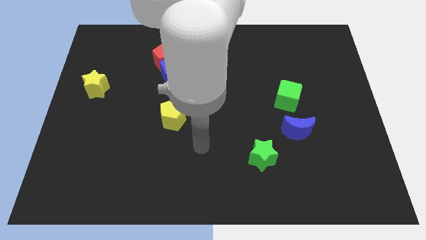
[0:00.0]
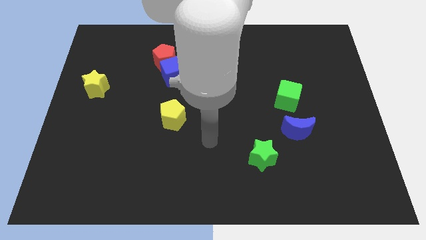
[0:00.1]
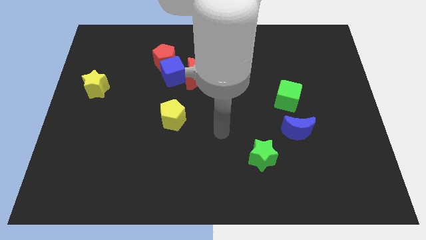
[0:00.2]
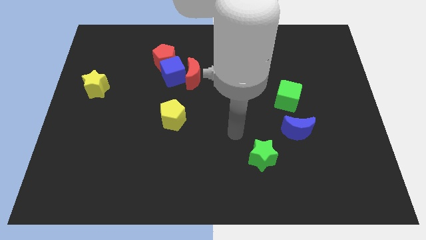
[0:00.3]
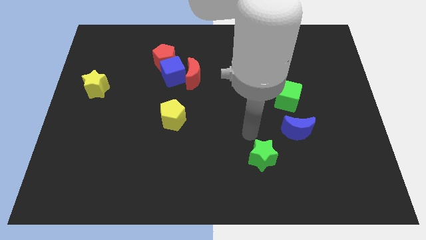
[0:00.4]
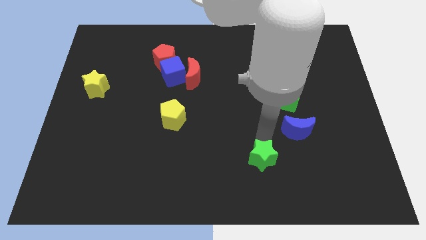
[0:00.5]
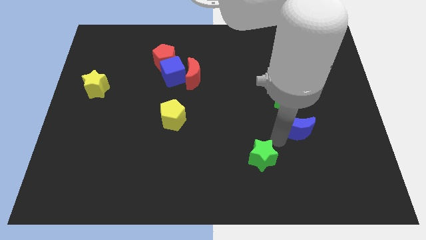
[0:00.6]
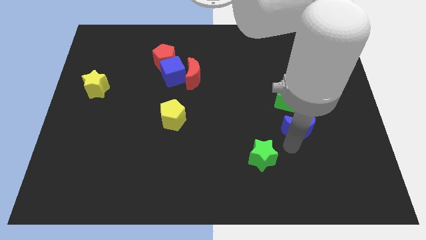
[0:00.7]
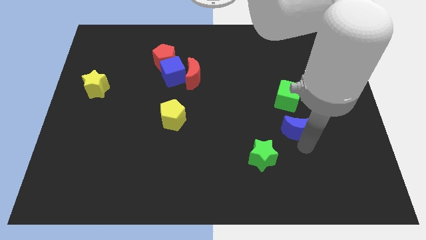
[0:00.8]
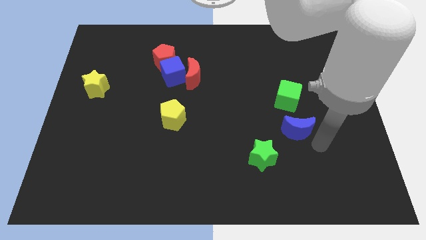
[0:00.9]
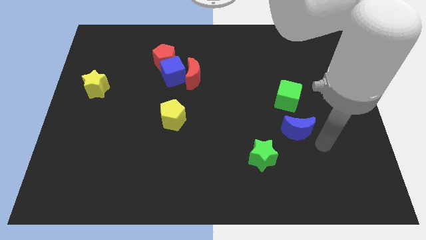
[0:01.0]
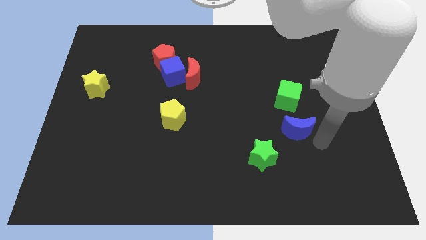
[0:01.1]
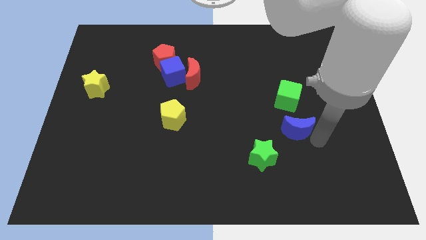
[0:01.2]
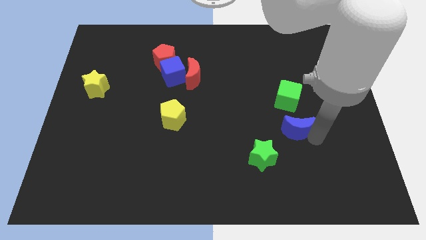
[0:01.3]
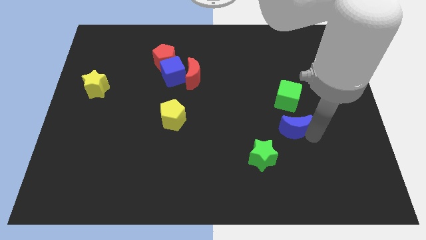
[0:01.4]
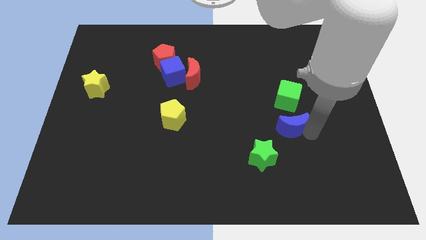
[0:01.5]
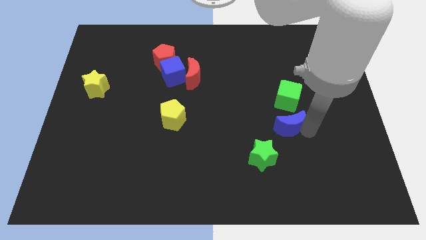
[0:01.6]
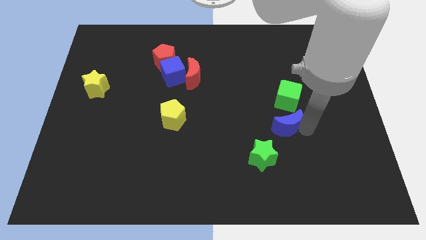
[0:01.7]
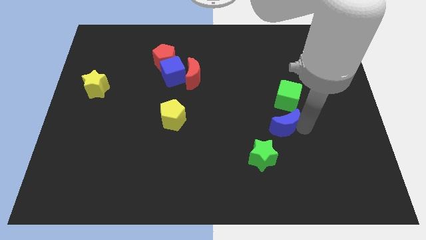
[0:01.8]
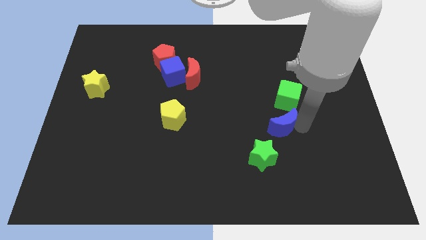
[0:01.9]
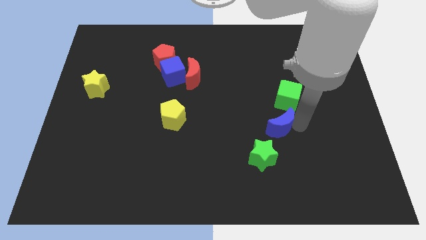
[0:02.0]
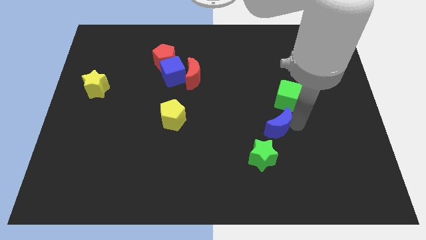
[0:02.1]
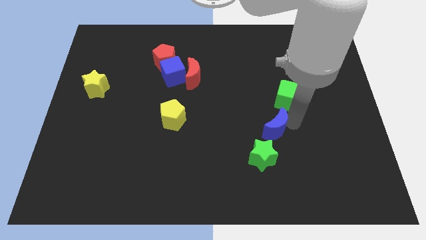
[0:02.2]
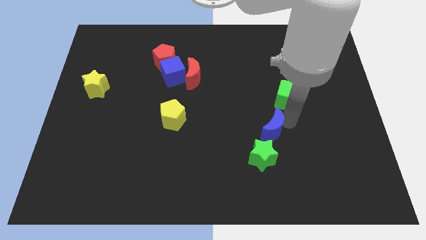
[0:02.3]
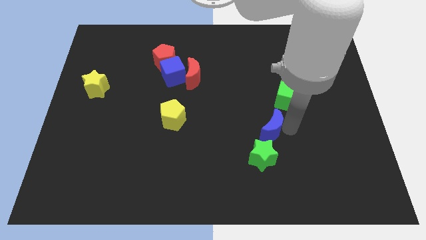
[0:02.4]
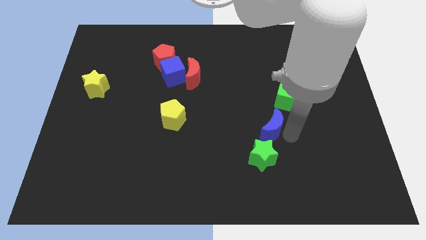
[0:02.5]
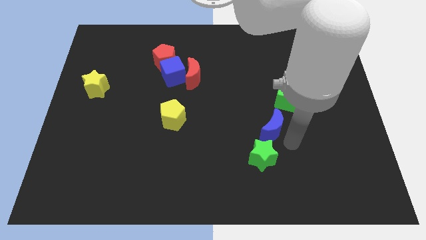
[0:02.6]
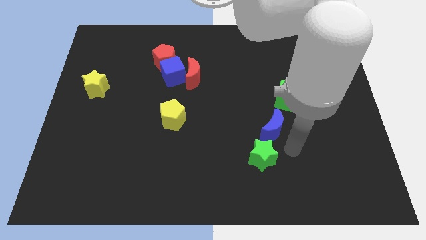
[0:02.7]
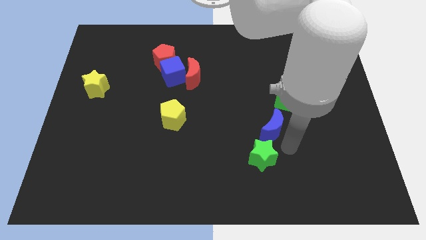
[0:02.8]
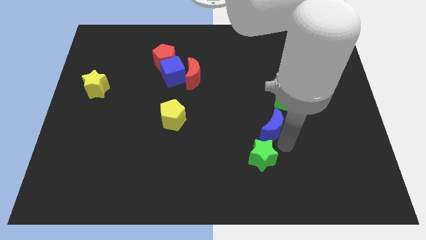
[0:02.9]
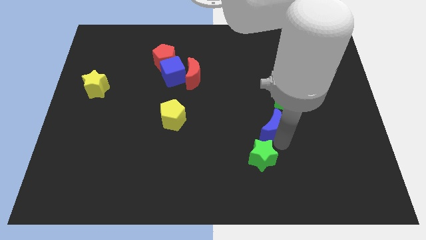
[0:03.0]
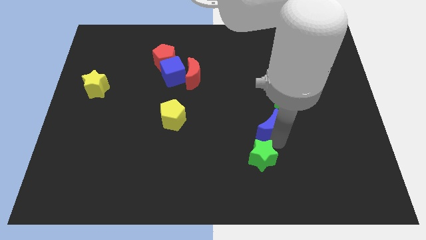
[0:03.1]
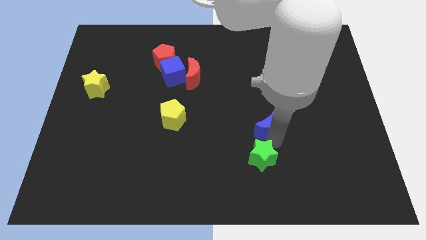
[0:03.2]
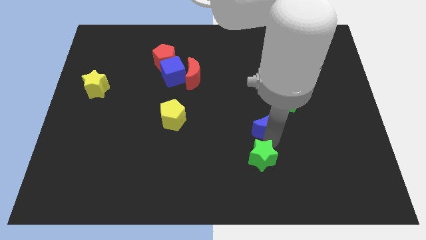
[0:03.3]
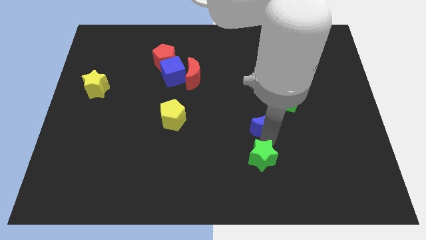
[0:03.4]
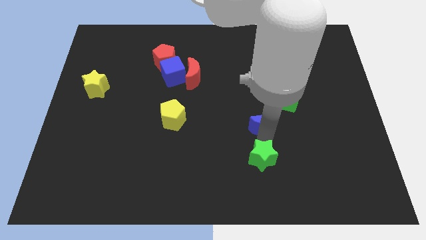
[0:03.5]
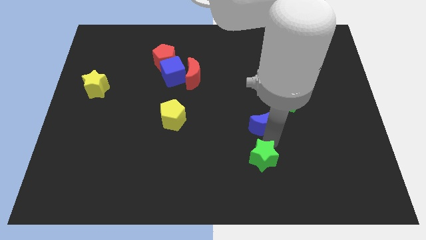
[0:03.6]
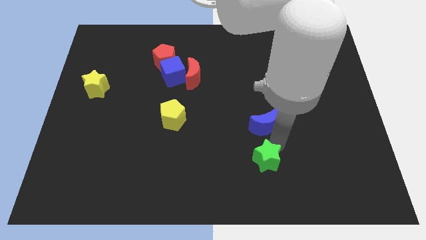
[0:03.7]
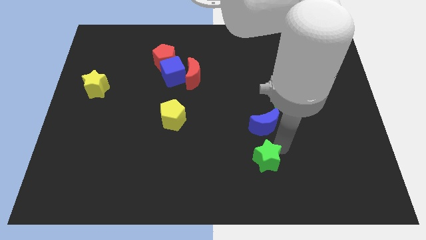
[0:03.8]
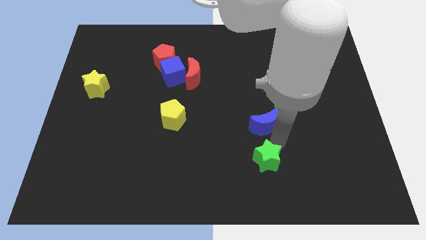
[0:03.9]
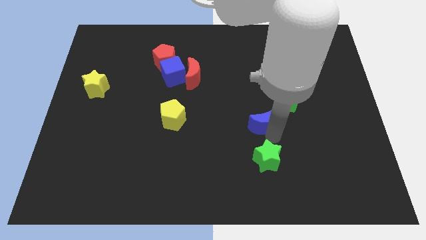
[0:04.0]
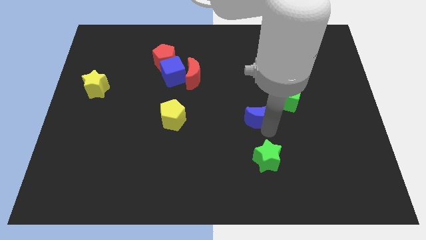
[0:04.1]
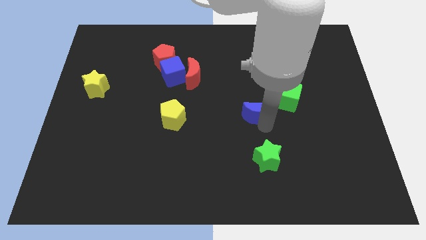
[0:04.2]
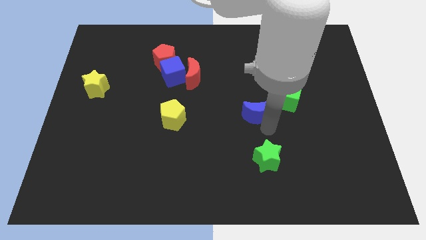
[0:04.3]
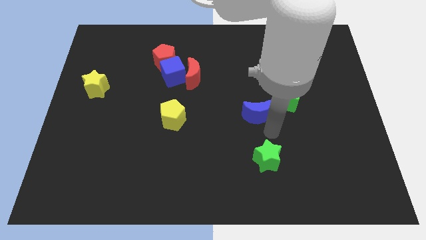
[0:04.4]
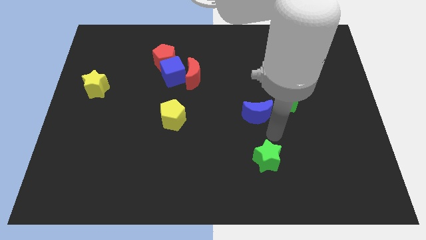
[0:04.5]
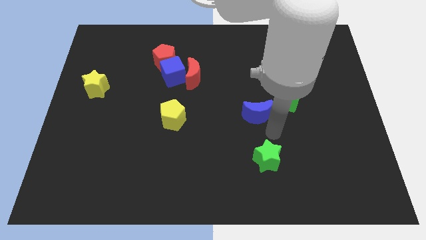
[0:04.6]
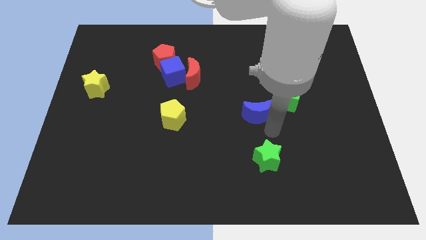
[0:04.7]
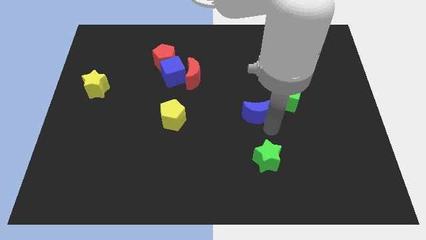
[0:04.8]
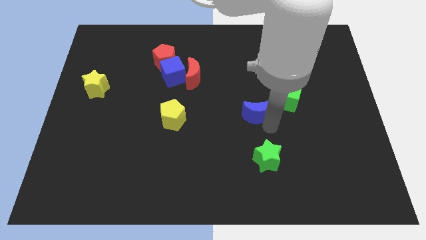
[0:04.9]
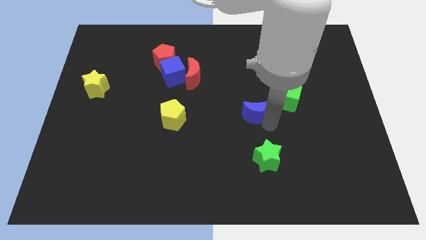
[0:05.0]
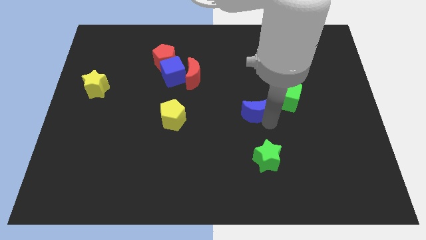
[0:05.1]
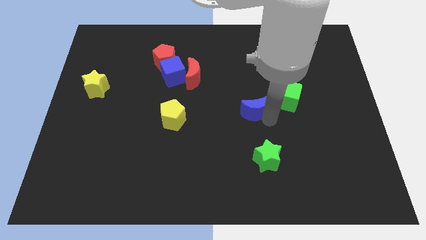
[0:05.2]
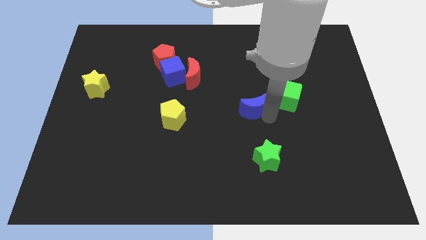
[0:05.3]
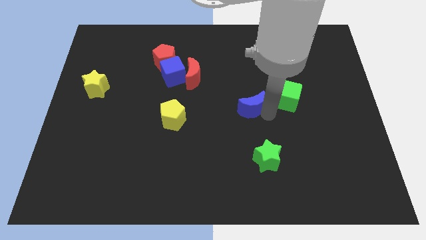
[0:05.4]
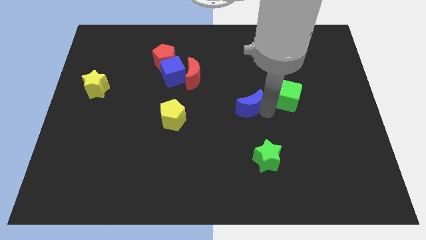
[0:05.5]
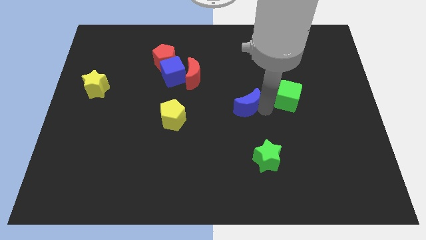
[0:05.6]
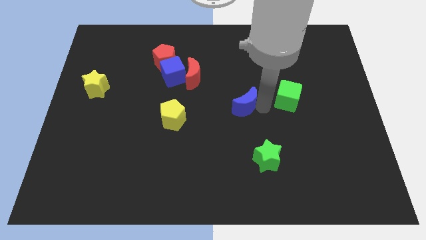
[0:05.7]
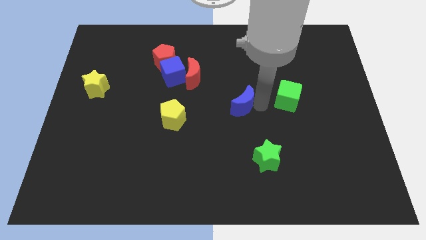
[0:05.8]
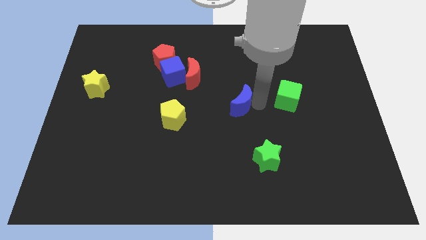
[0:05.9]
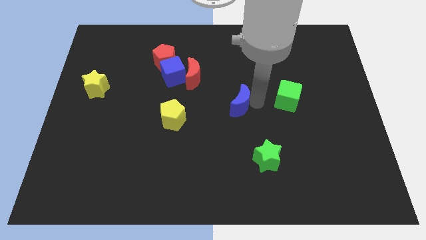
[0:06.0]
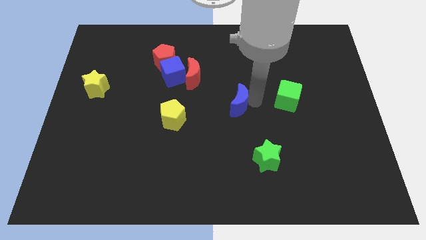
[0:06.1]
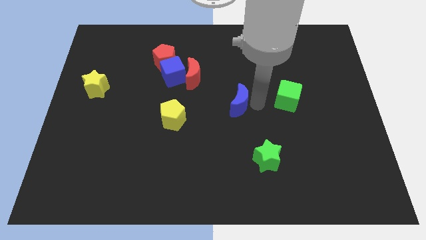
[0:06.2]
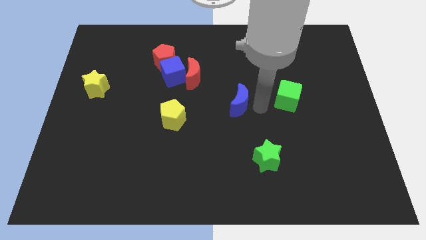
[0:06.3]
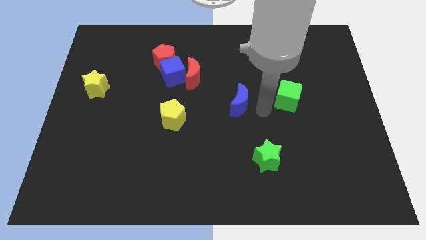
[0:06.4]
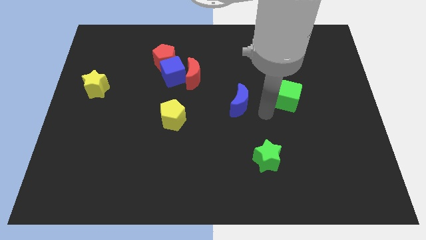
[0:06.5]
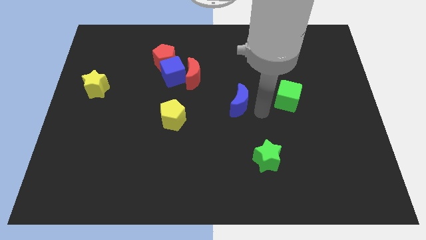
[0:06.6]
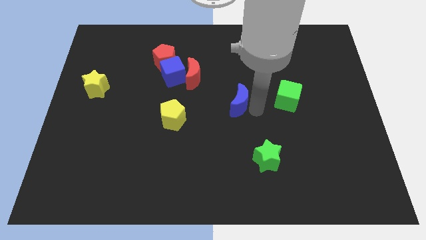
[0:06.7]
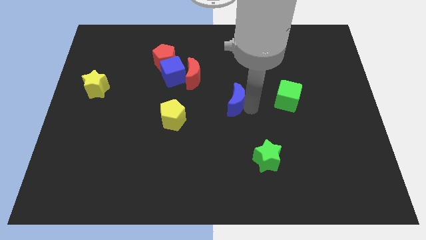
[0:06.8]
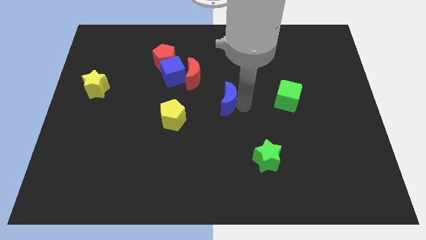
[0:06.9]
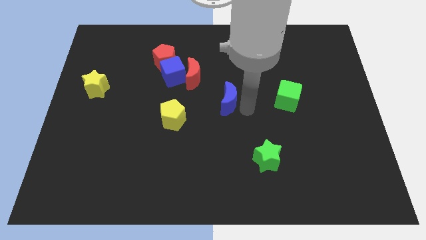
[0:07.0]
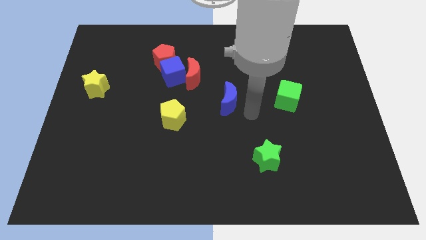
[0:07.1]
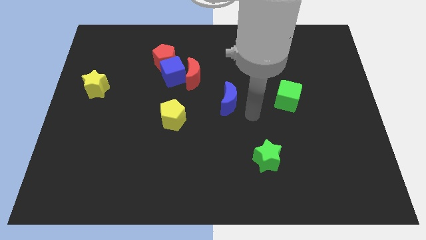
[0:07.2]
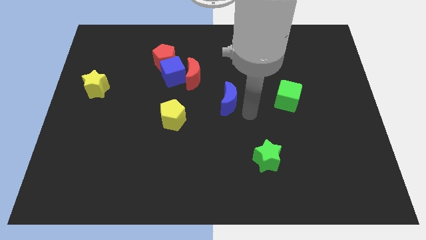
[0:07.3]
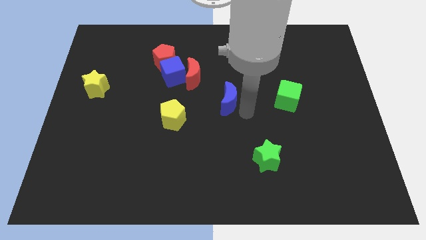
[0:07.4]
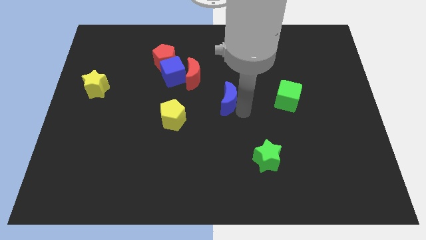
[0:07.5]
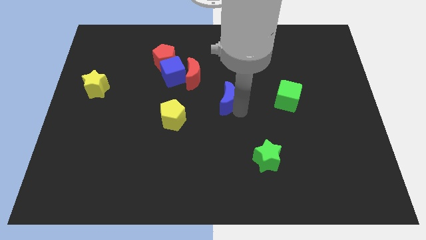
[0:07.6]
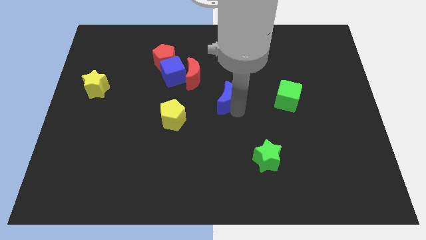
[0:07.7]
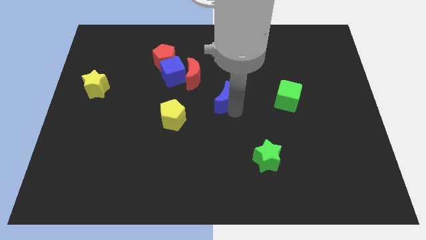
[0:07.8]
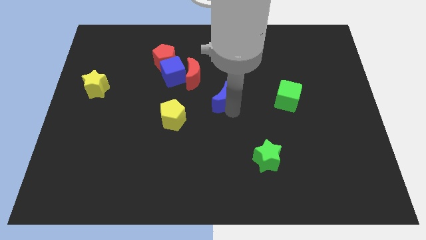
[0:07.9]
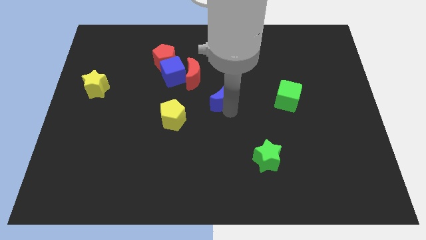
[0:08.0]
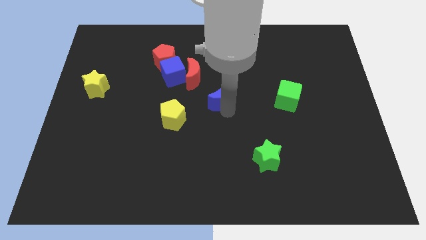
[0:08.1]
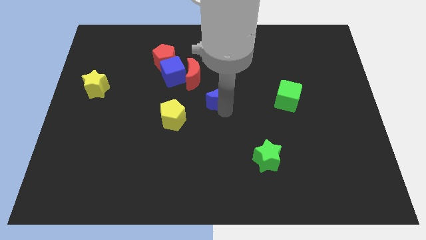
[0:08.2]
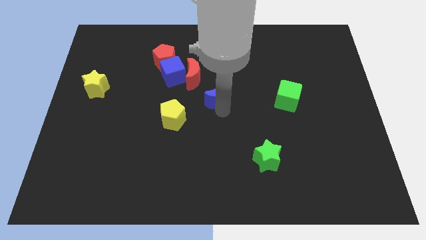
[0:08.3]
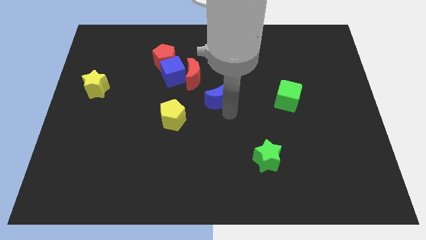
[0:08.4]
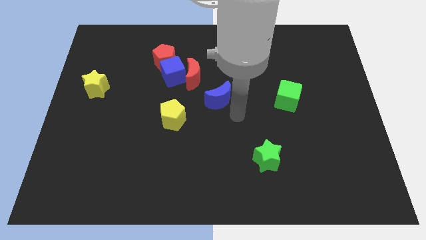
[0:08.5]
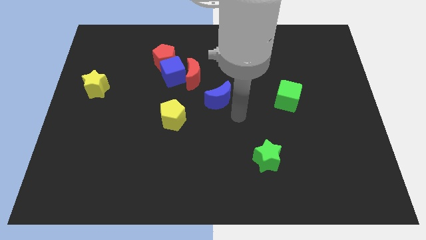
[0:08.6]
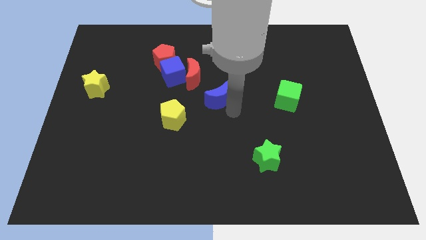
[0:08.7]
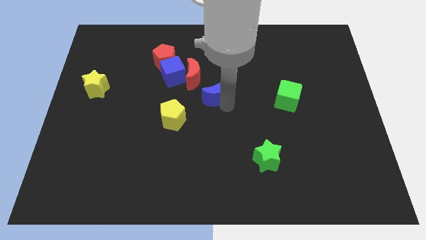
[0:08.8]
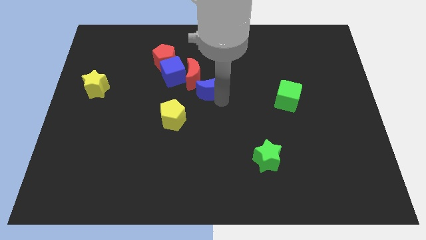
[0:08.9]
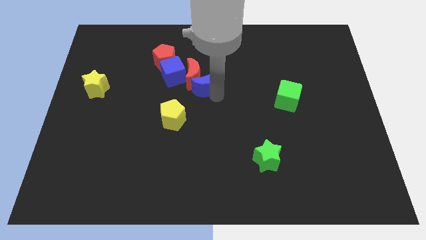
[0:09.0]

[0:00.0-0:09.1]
push the blue moon towards the red moon
